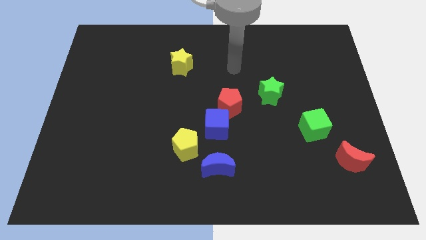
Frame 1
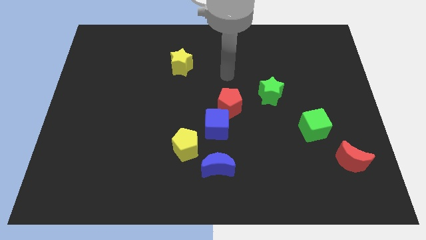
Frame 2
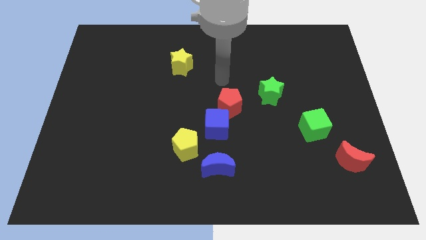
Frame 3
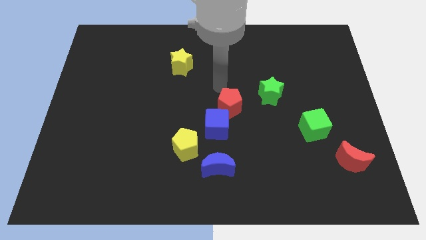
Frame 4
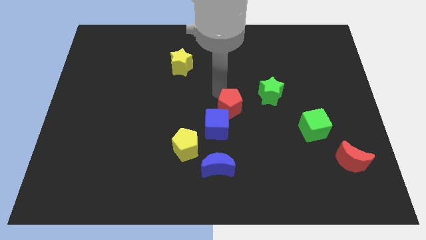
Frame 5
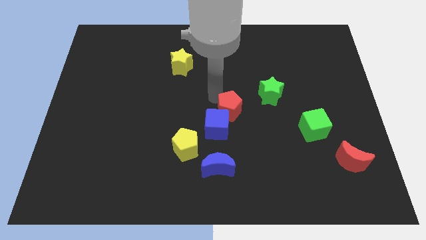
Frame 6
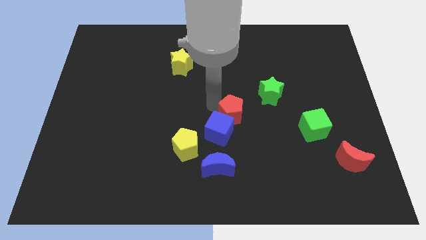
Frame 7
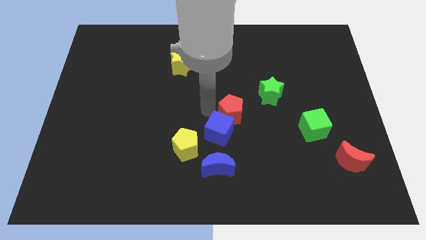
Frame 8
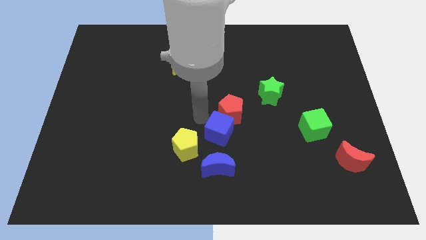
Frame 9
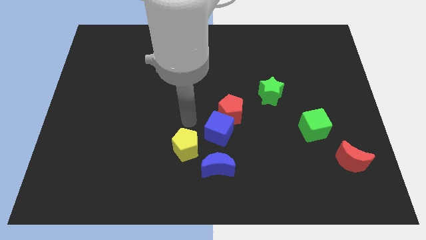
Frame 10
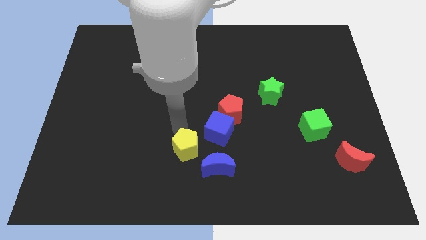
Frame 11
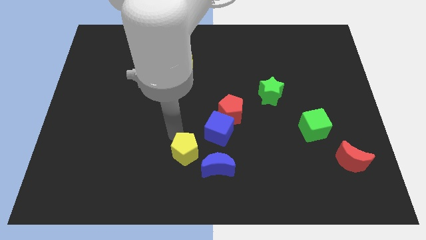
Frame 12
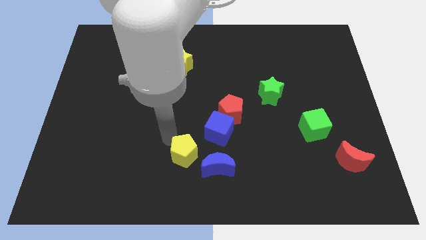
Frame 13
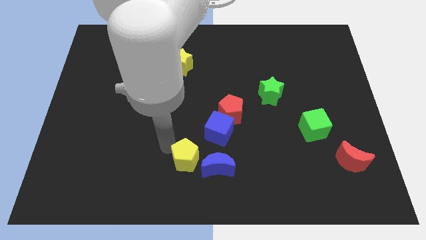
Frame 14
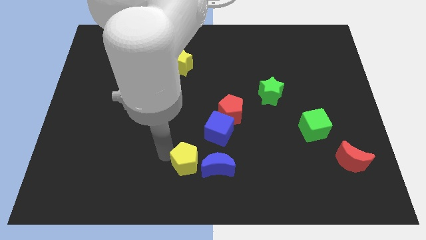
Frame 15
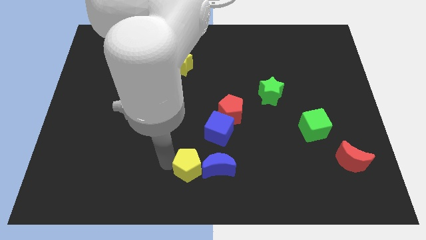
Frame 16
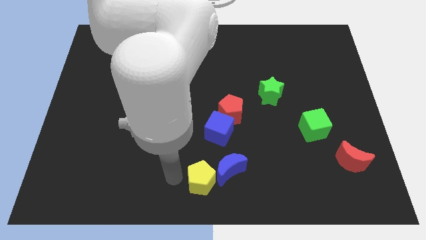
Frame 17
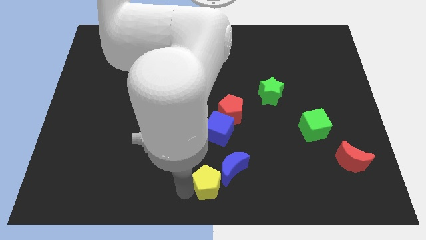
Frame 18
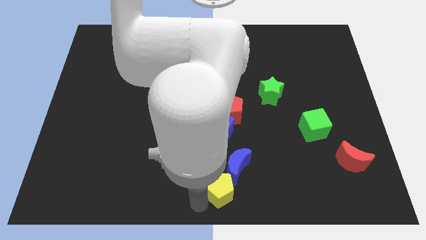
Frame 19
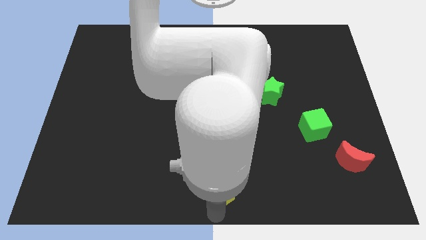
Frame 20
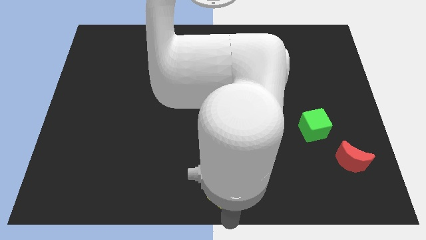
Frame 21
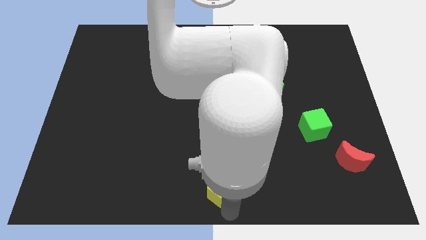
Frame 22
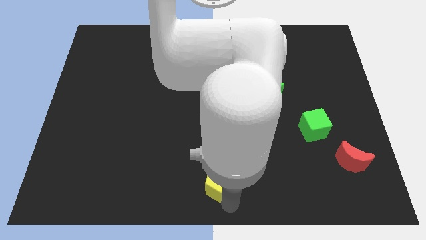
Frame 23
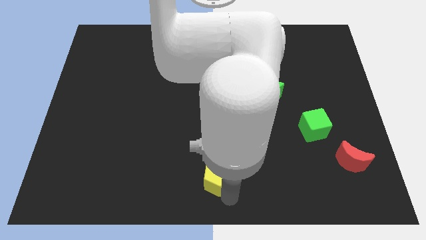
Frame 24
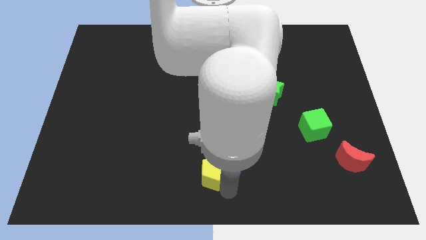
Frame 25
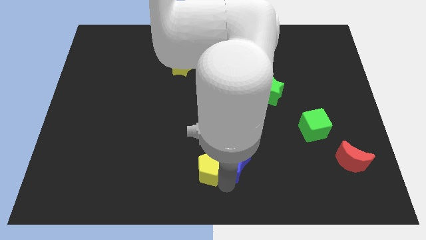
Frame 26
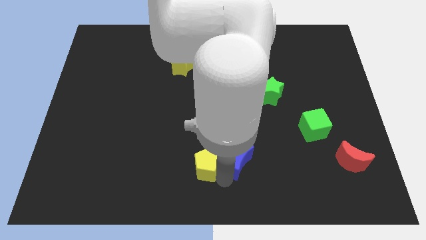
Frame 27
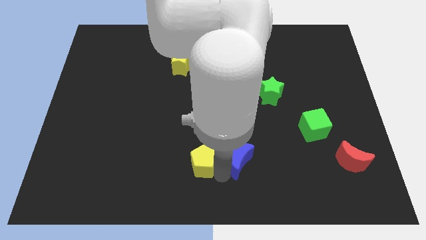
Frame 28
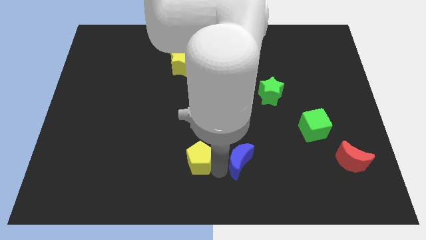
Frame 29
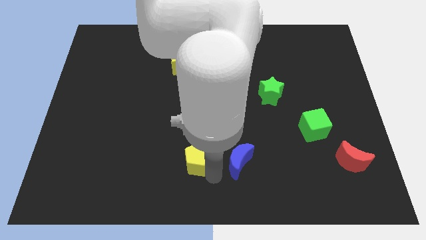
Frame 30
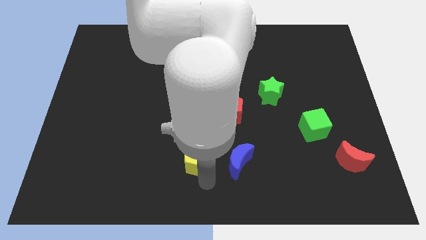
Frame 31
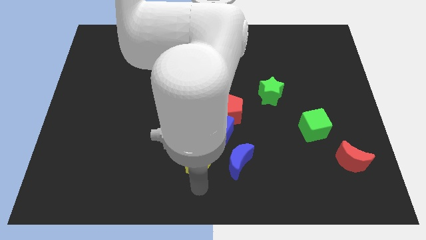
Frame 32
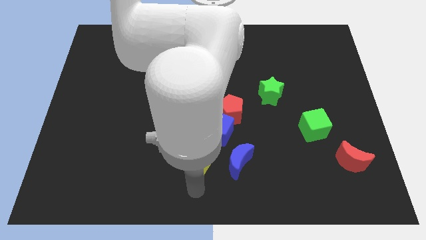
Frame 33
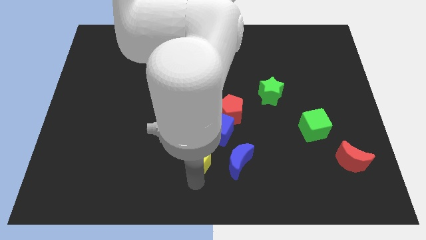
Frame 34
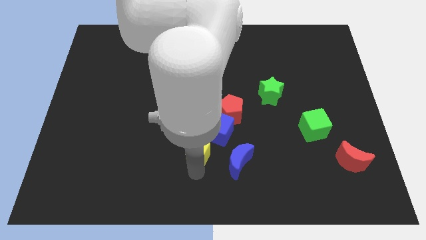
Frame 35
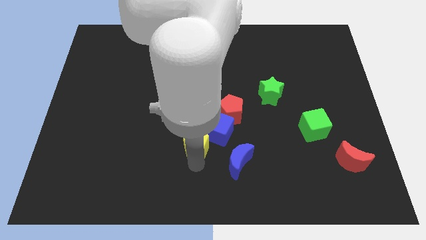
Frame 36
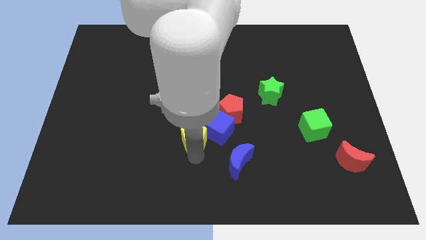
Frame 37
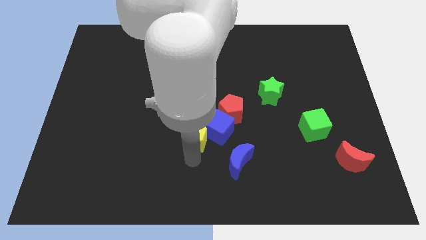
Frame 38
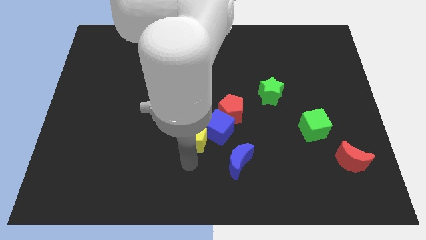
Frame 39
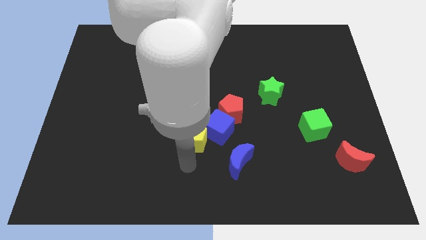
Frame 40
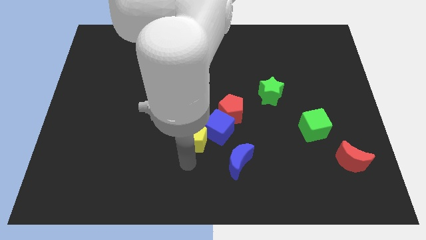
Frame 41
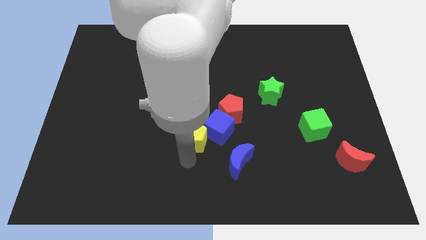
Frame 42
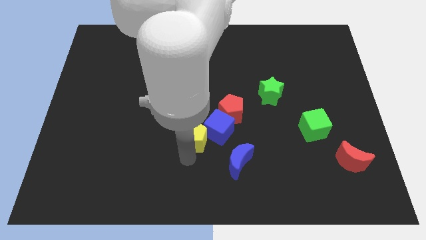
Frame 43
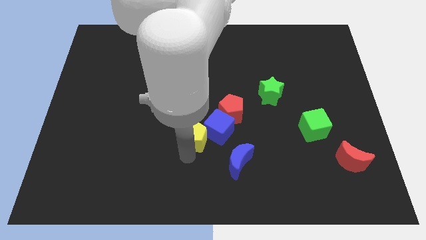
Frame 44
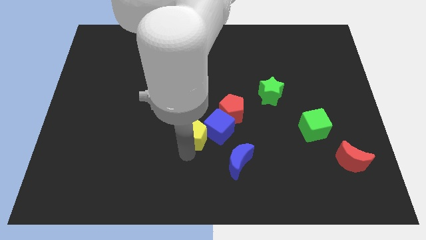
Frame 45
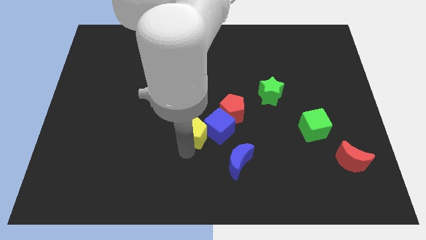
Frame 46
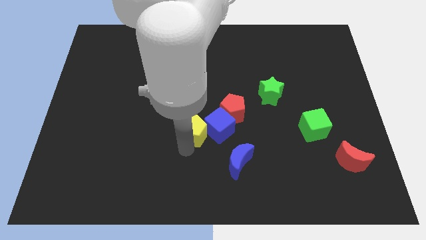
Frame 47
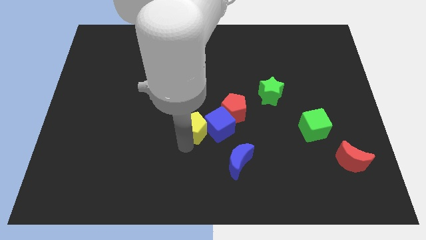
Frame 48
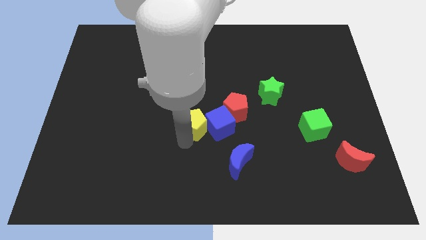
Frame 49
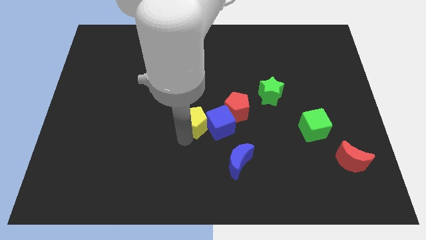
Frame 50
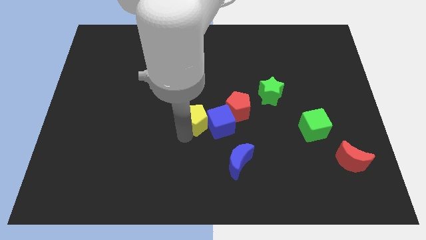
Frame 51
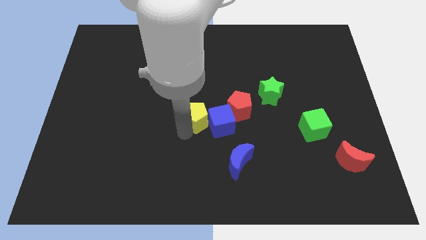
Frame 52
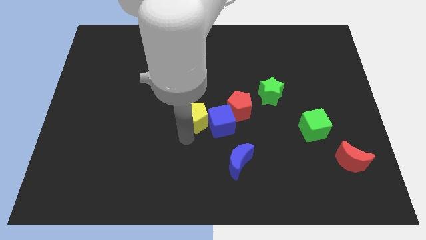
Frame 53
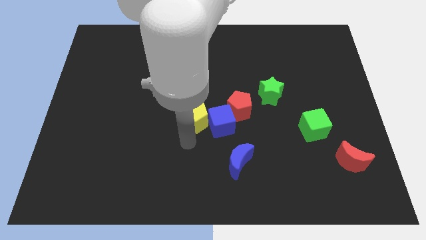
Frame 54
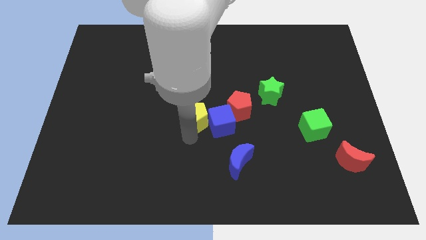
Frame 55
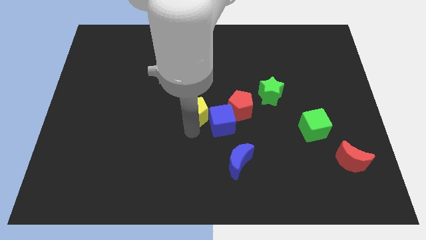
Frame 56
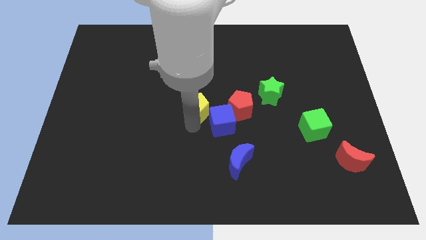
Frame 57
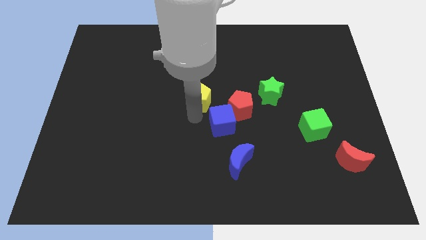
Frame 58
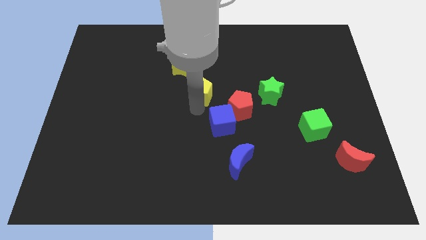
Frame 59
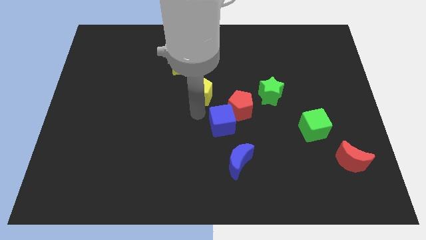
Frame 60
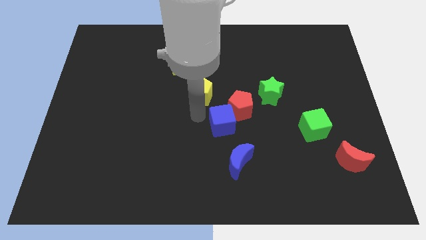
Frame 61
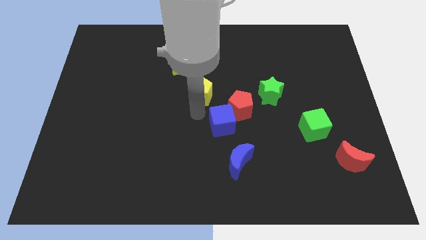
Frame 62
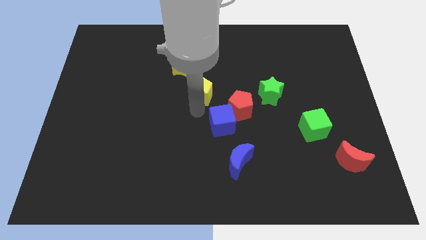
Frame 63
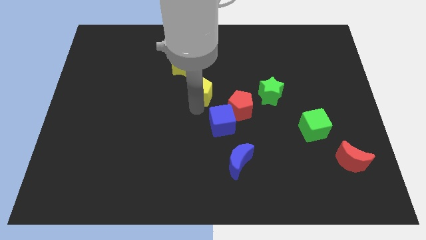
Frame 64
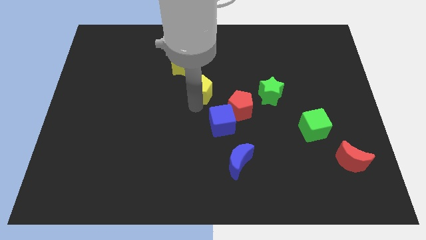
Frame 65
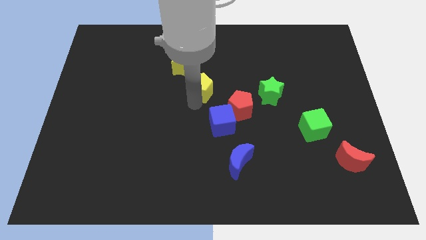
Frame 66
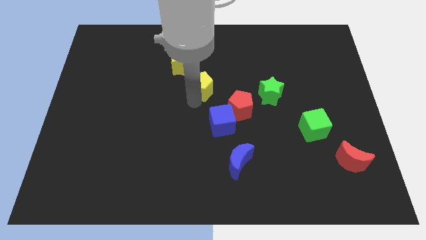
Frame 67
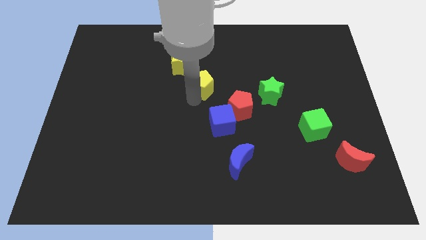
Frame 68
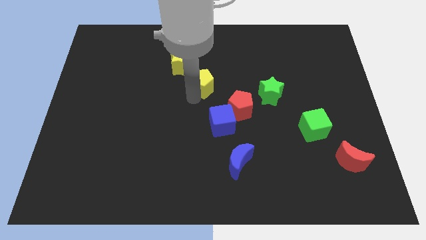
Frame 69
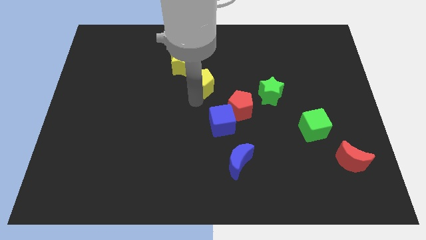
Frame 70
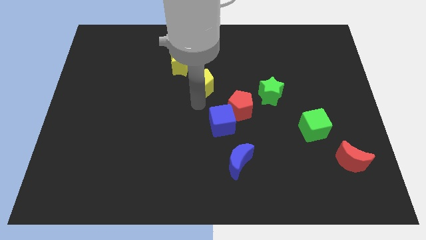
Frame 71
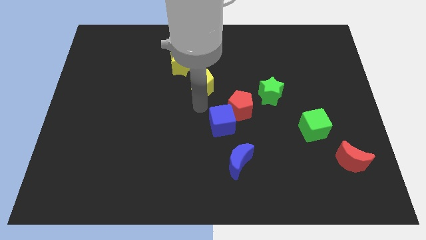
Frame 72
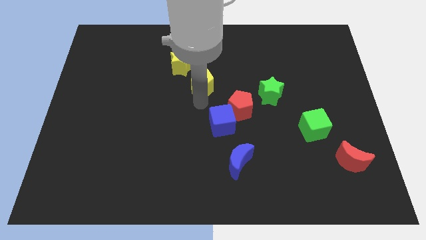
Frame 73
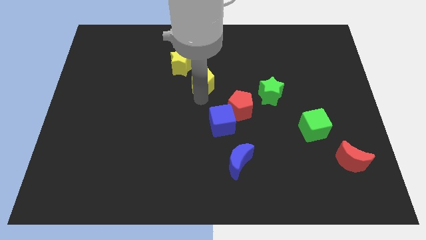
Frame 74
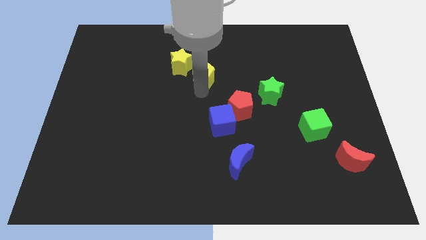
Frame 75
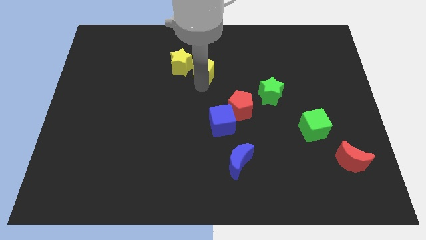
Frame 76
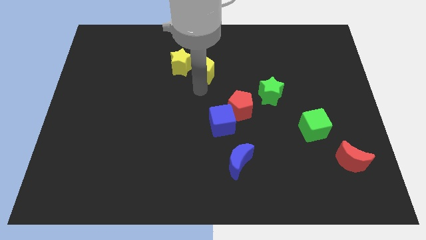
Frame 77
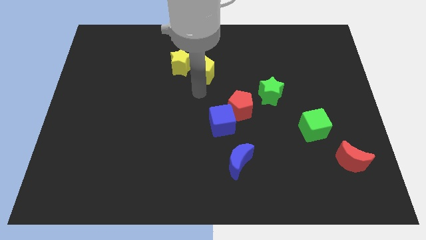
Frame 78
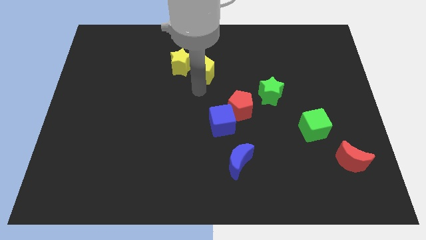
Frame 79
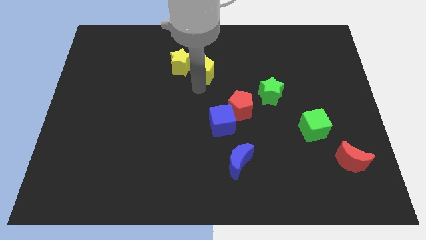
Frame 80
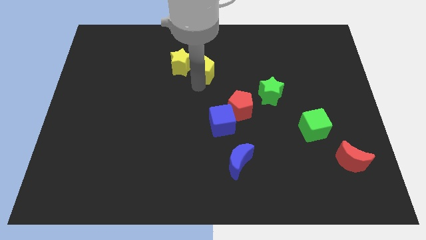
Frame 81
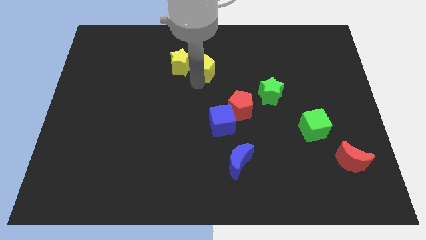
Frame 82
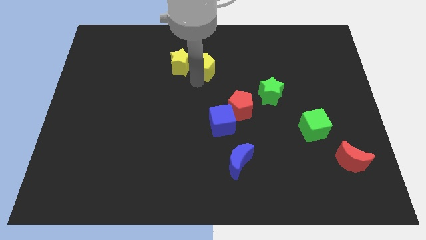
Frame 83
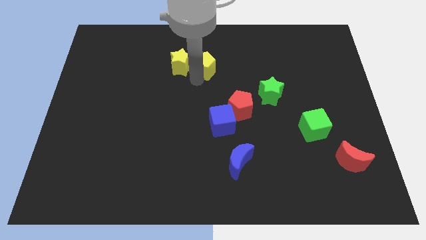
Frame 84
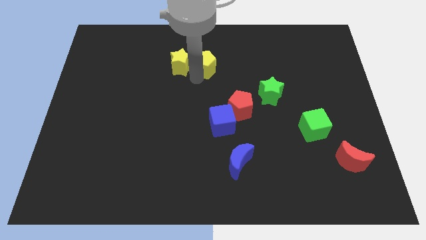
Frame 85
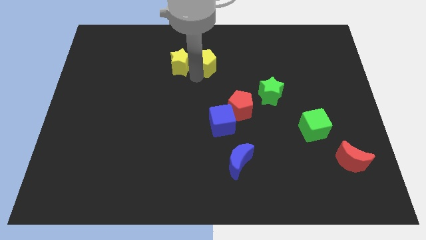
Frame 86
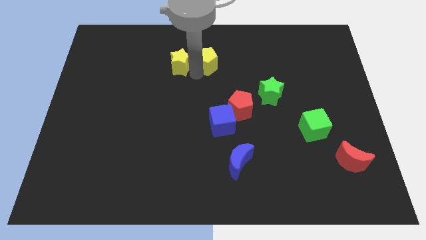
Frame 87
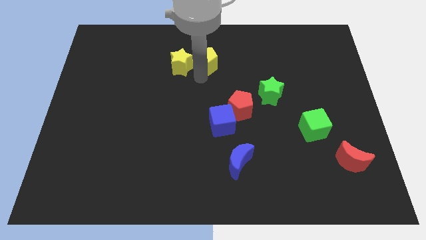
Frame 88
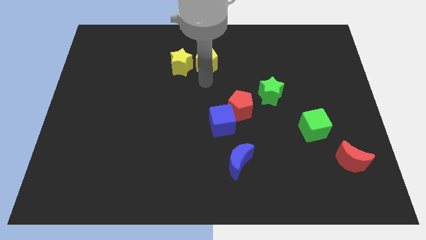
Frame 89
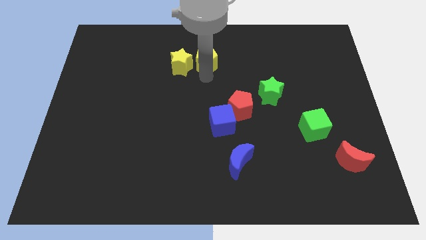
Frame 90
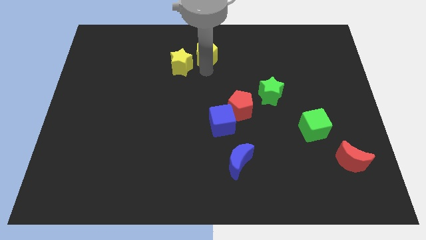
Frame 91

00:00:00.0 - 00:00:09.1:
put the yellow pentagon to the top side
